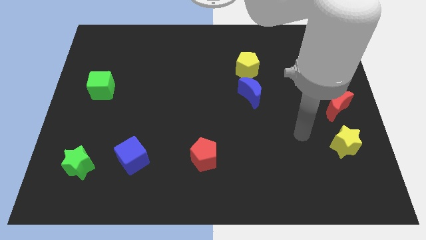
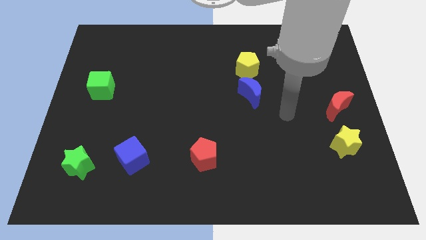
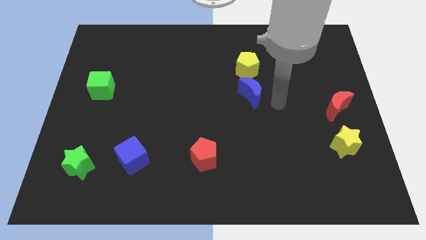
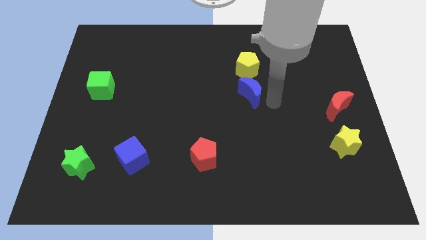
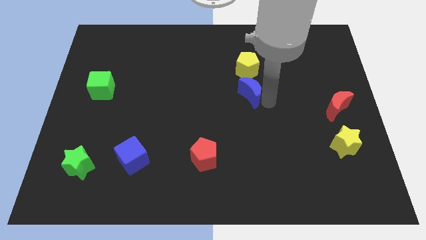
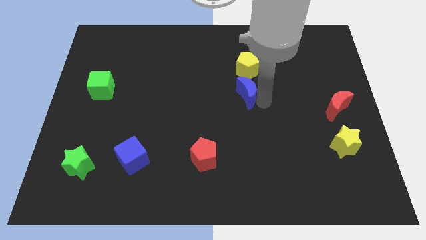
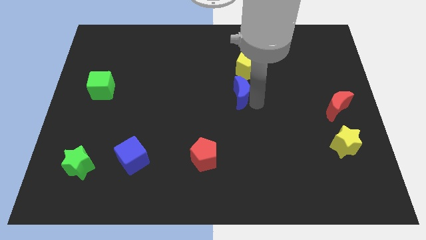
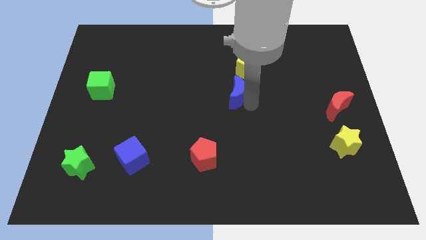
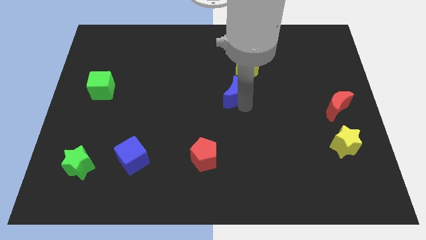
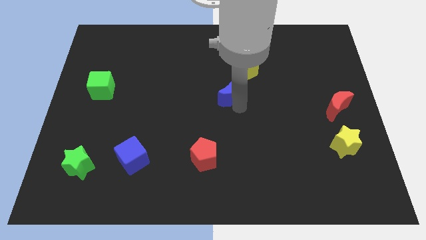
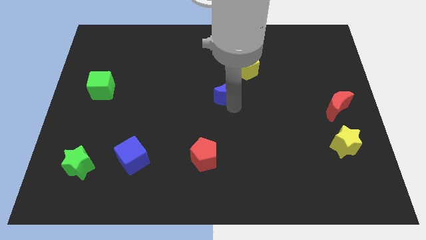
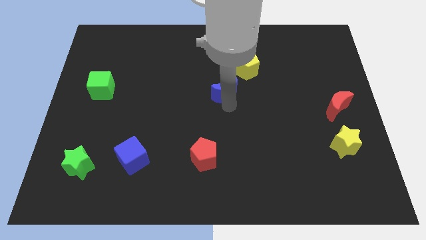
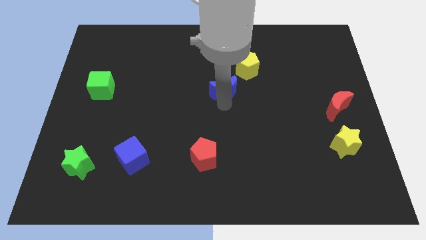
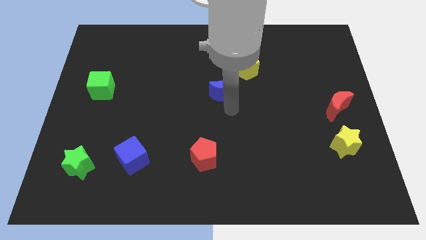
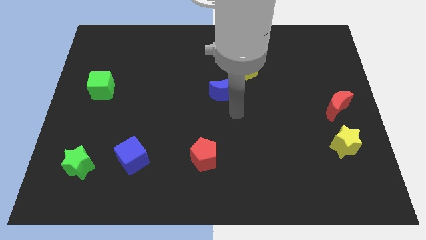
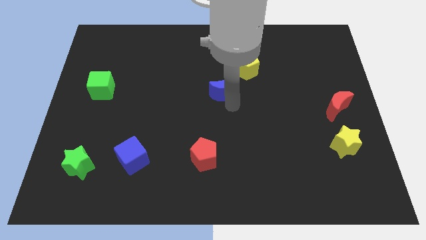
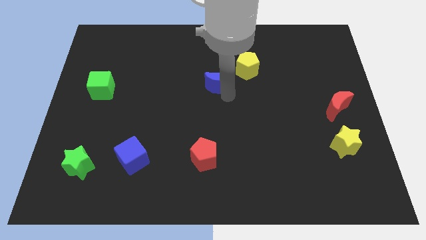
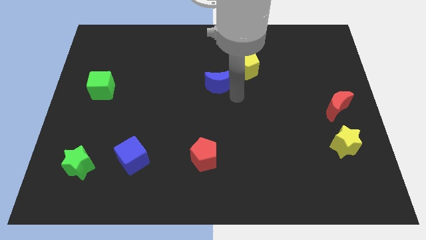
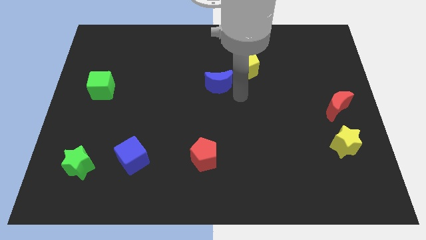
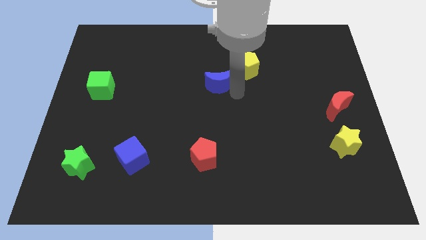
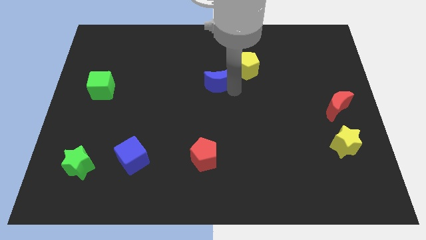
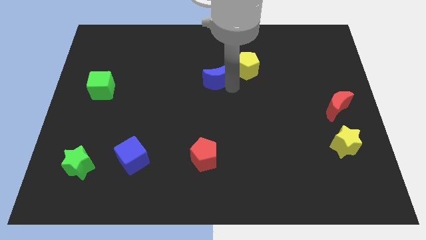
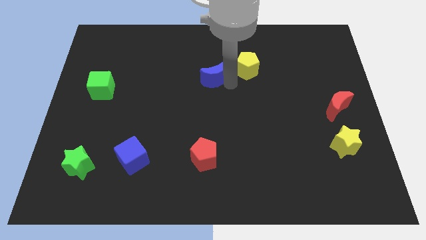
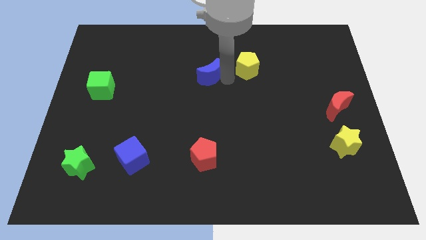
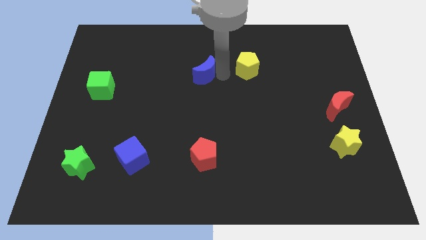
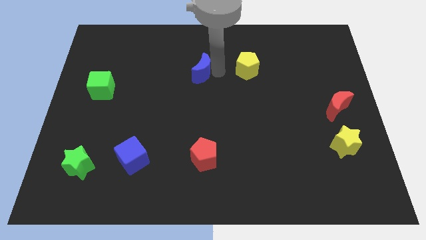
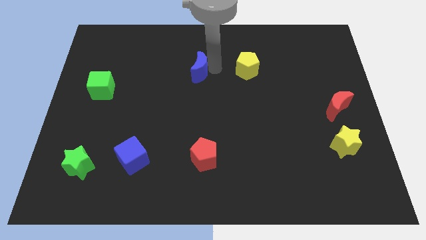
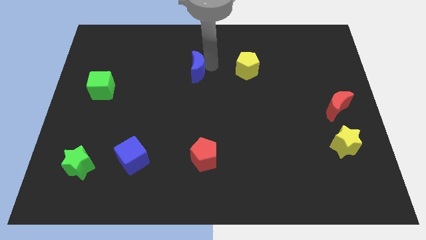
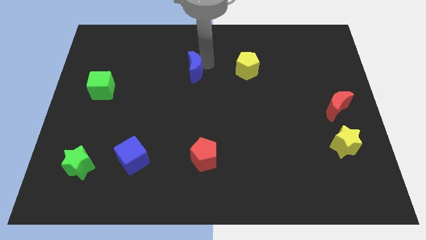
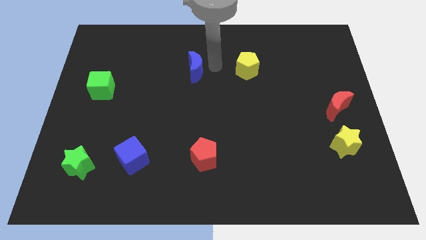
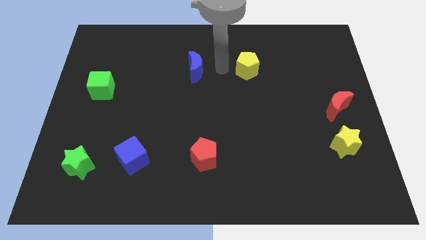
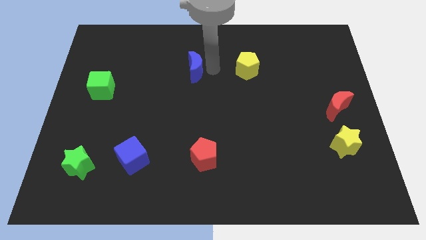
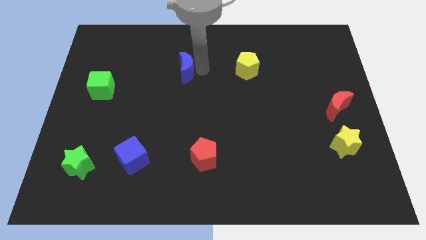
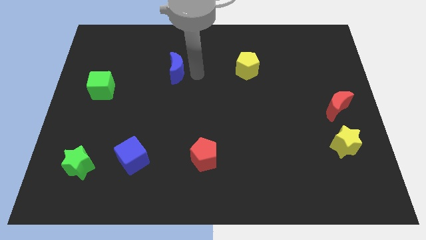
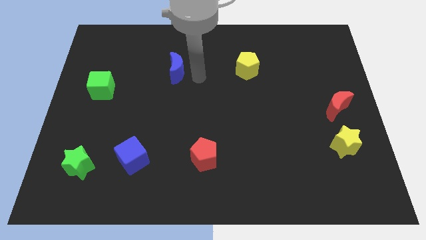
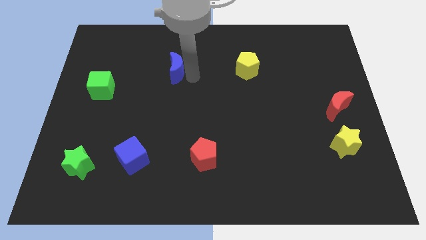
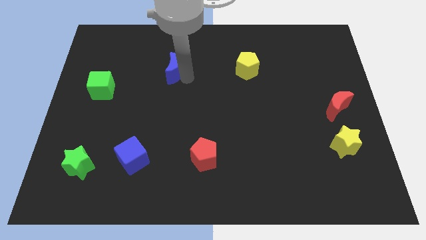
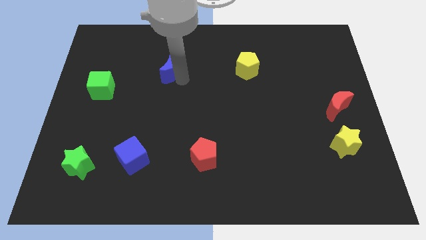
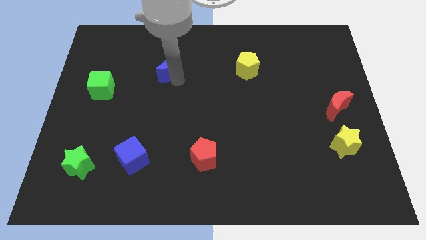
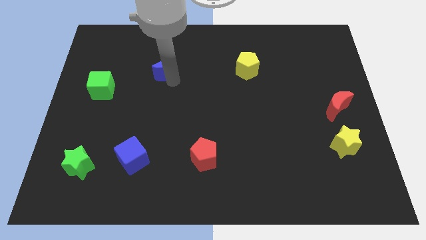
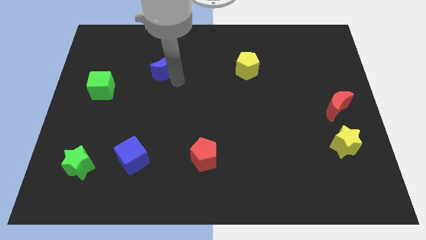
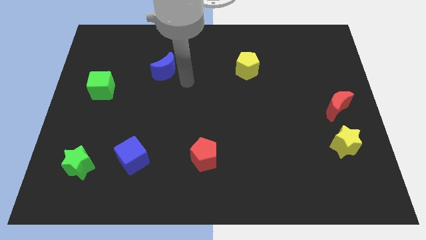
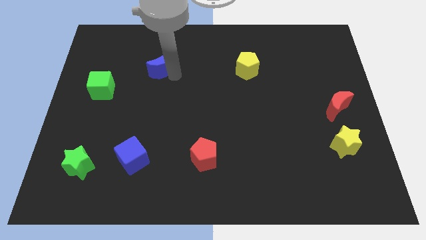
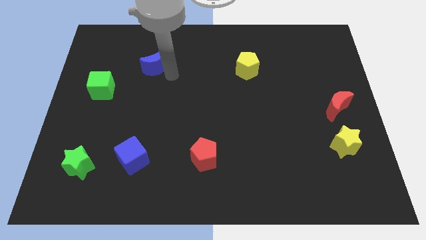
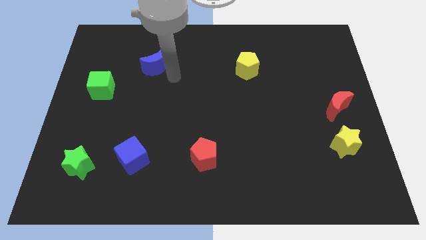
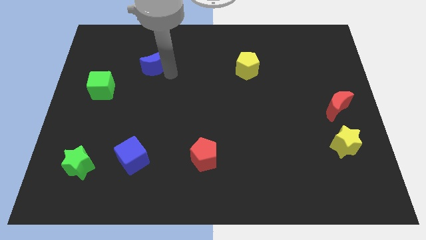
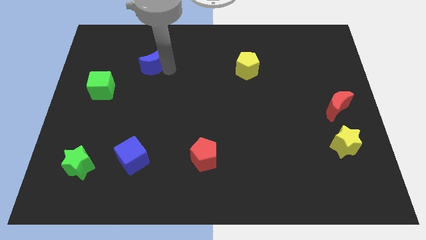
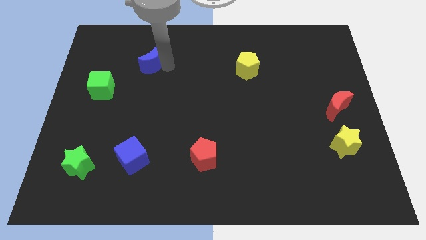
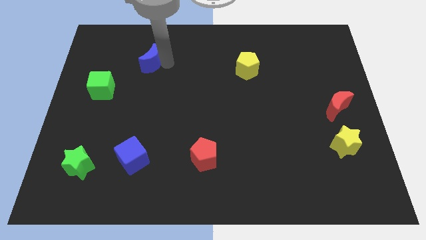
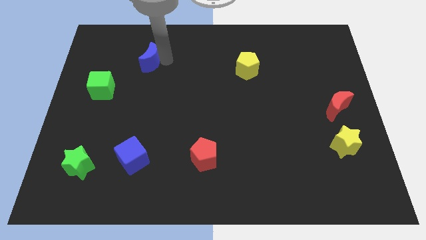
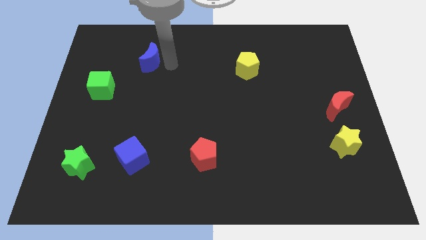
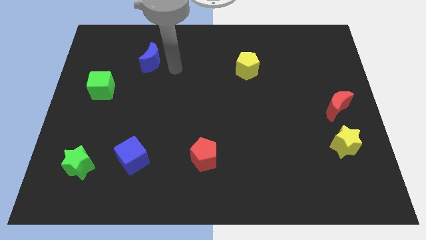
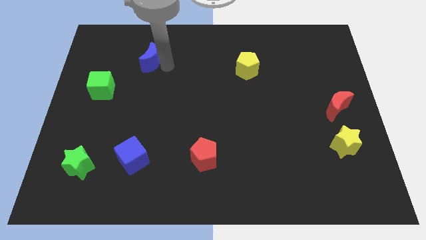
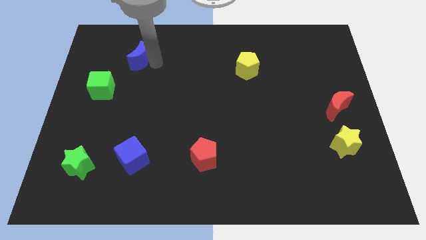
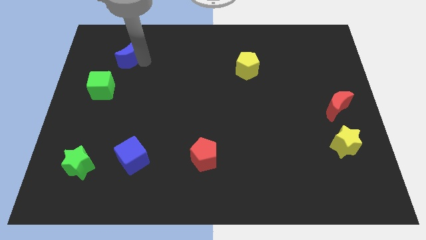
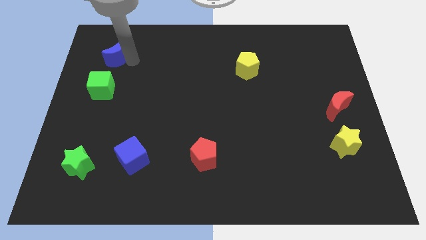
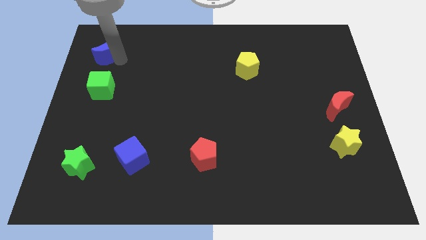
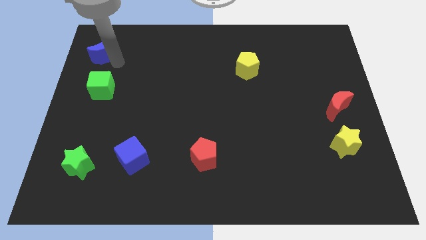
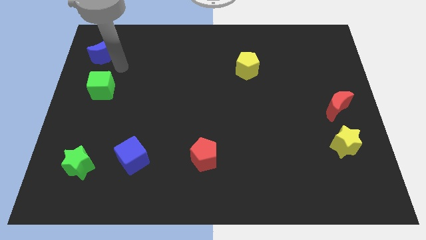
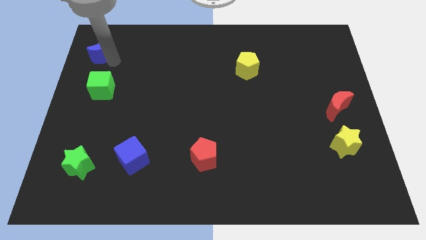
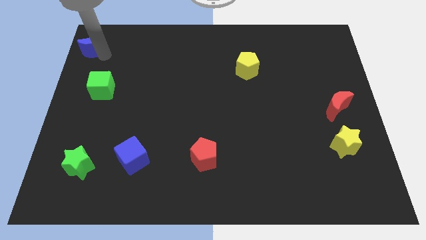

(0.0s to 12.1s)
push the blue moon to the upper left corner

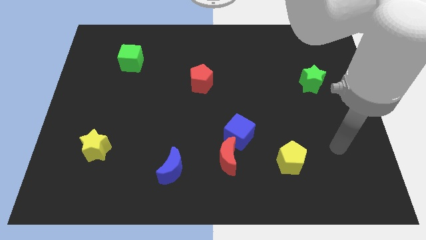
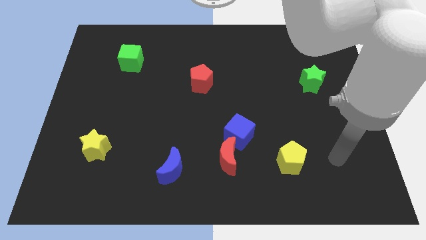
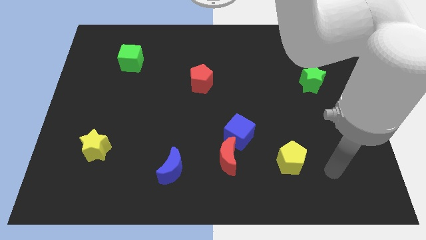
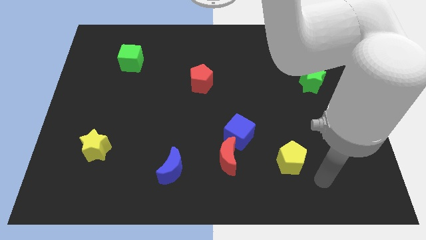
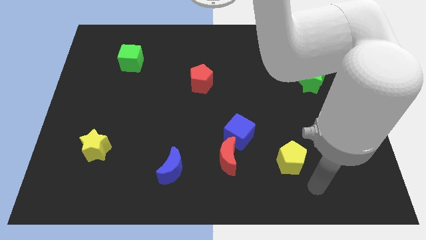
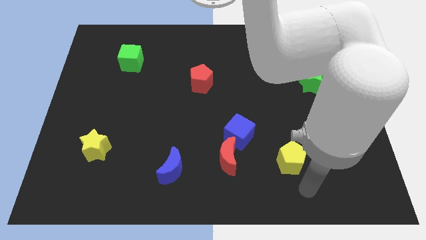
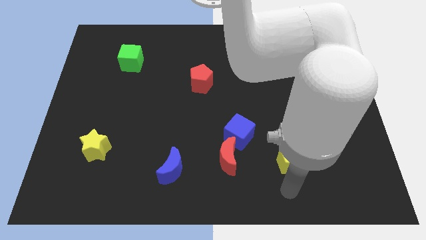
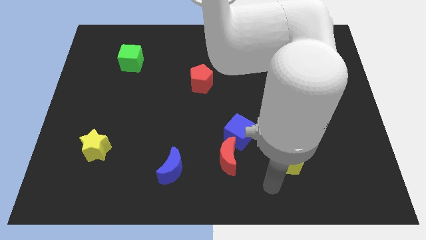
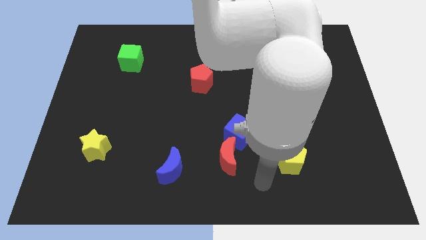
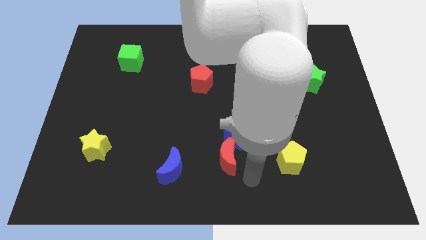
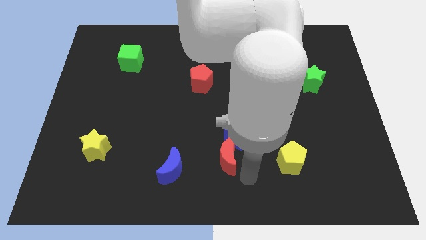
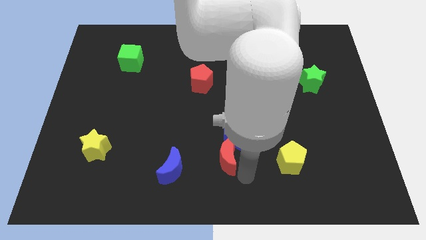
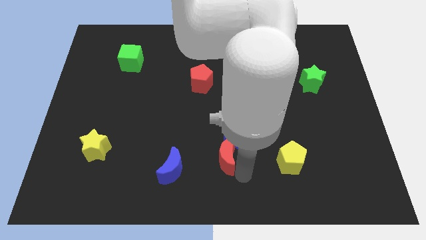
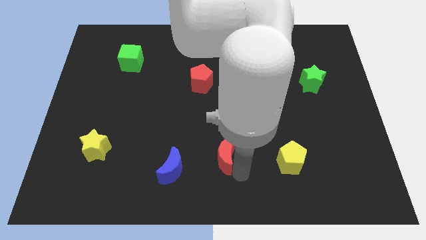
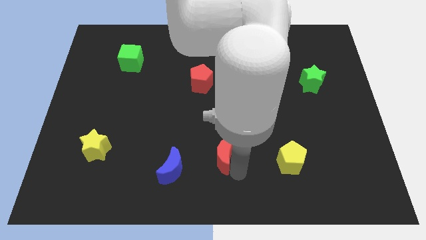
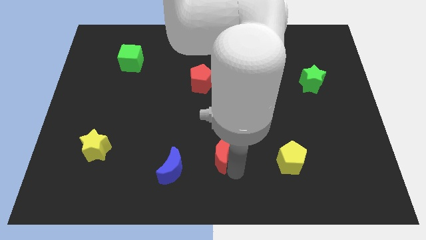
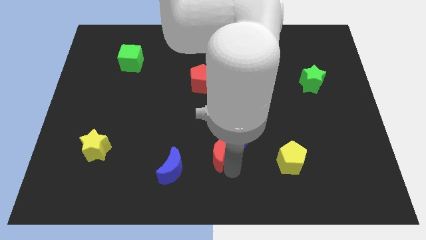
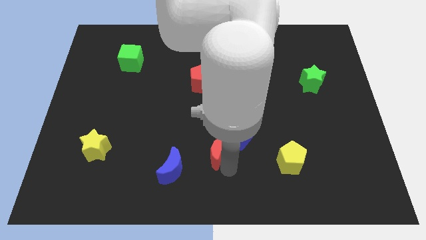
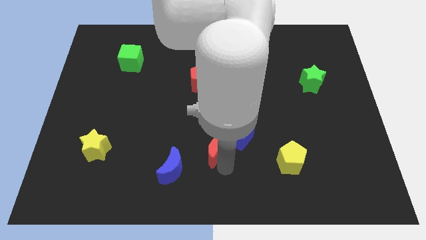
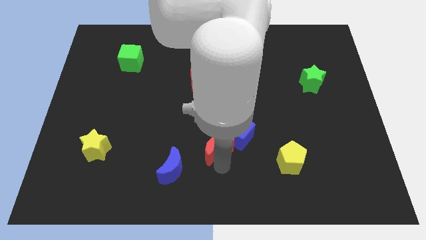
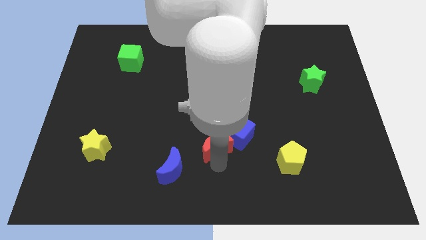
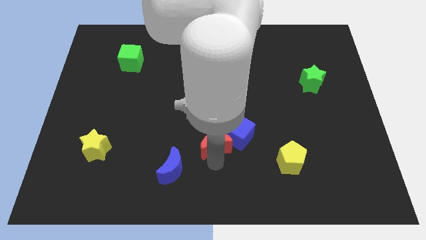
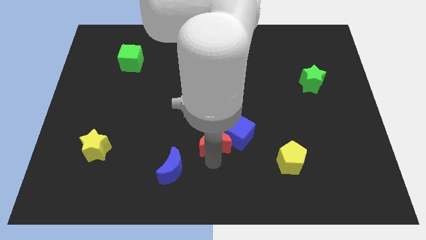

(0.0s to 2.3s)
push the red moon to the middle of the board
